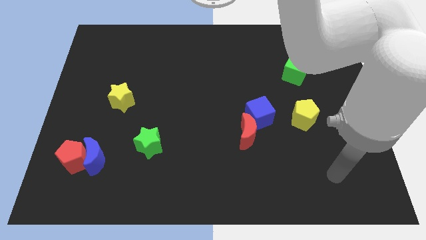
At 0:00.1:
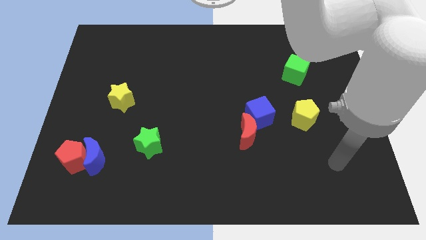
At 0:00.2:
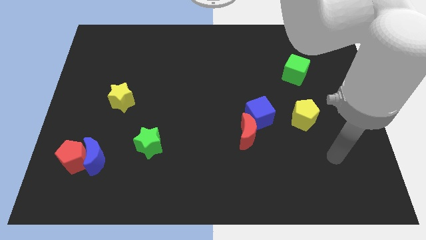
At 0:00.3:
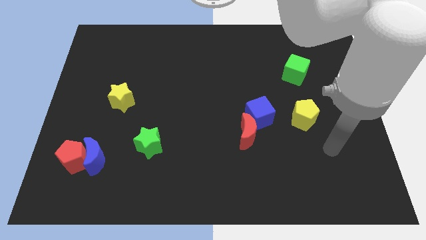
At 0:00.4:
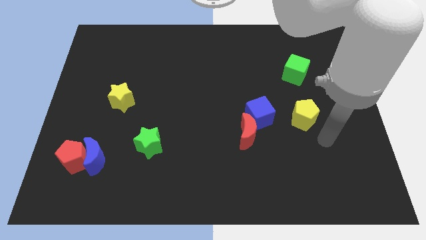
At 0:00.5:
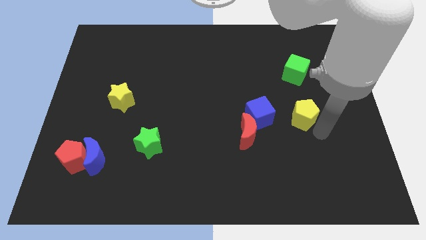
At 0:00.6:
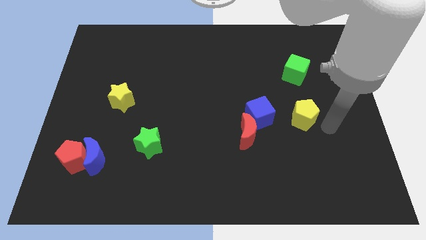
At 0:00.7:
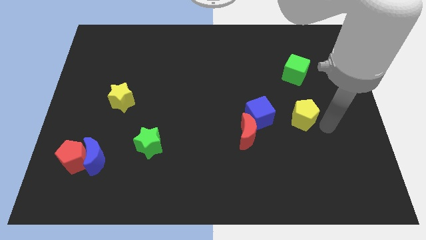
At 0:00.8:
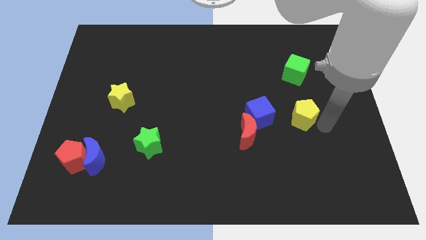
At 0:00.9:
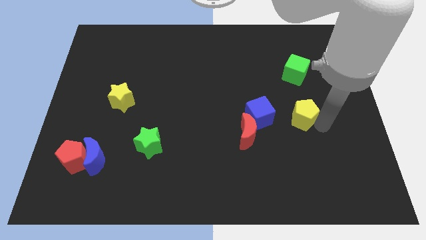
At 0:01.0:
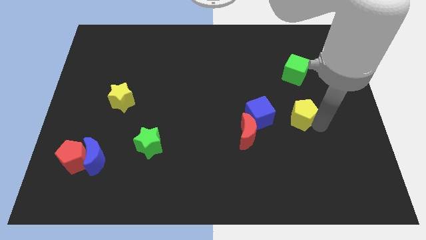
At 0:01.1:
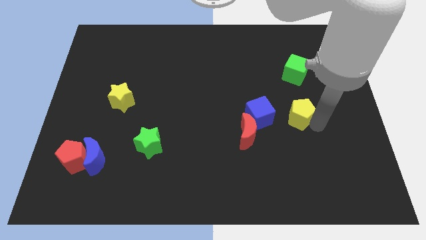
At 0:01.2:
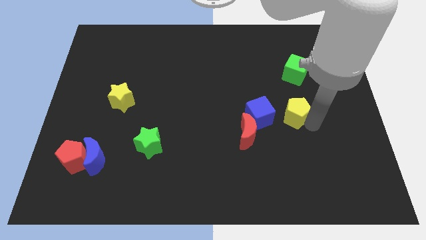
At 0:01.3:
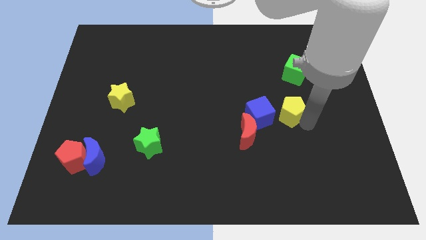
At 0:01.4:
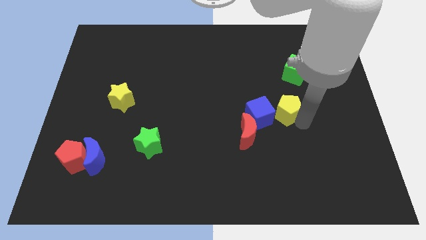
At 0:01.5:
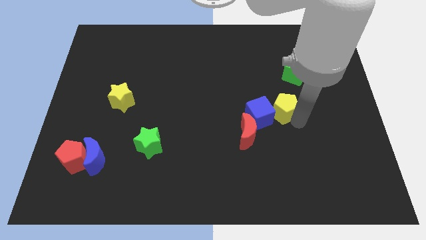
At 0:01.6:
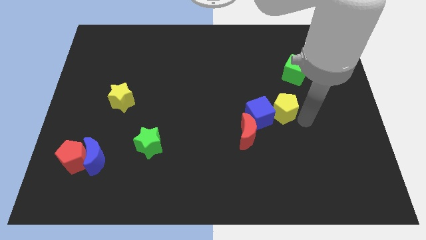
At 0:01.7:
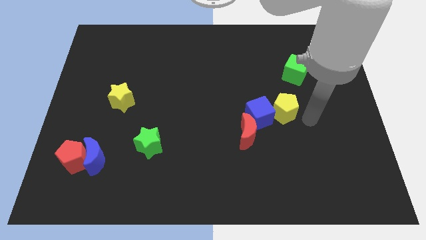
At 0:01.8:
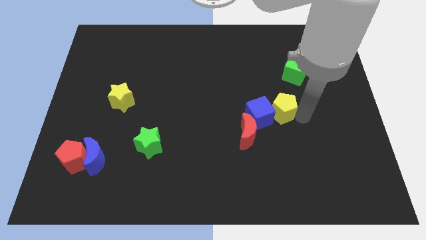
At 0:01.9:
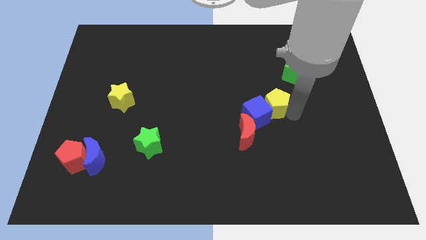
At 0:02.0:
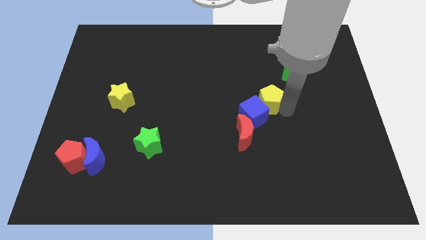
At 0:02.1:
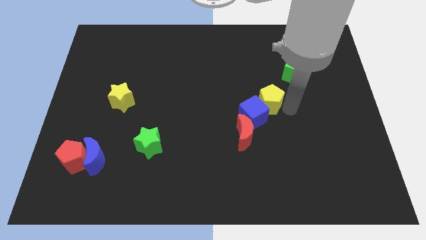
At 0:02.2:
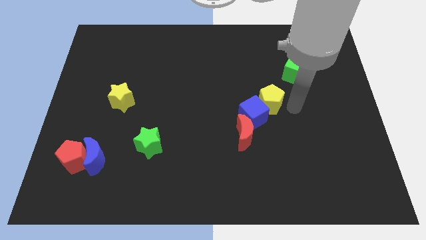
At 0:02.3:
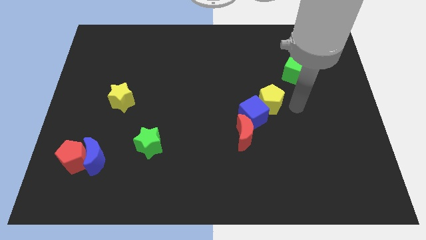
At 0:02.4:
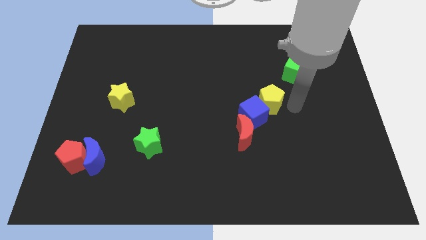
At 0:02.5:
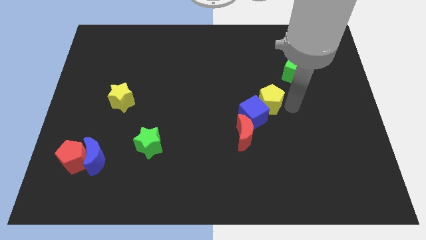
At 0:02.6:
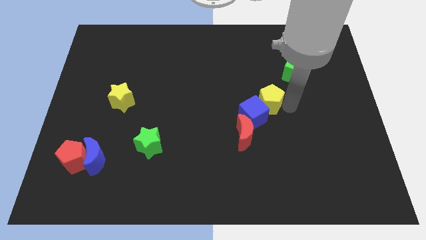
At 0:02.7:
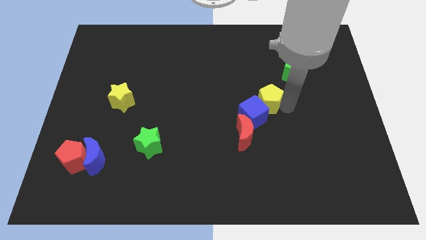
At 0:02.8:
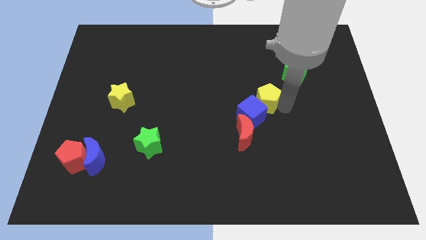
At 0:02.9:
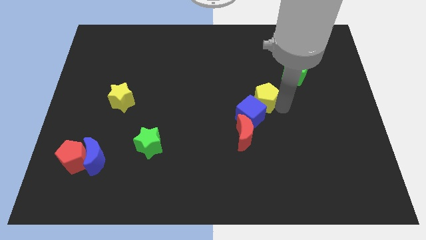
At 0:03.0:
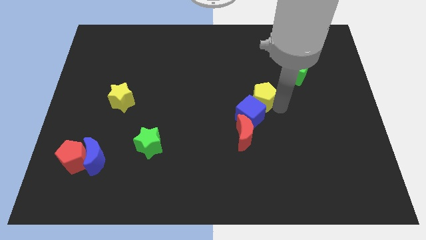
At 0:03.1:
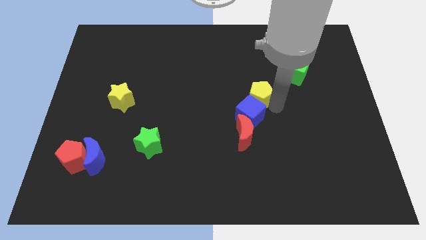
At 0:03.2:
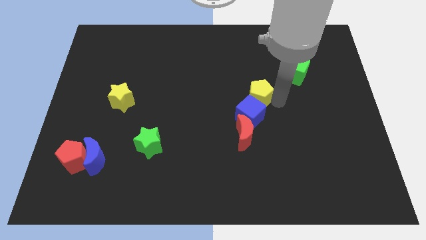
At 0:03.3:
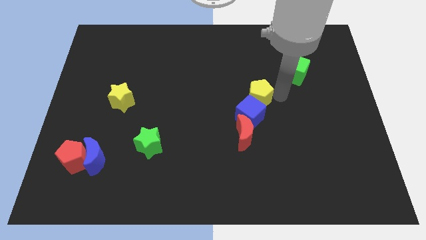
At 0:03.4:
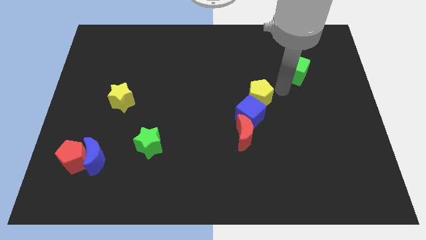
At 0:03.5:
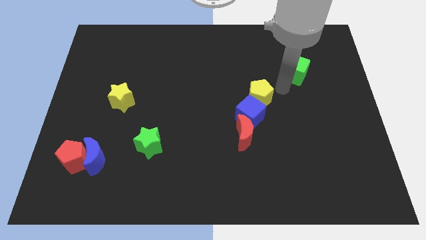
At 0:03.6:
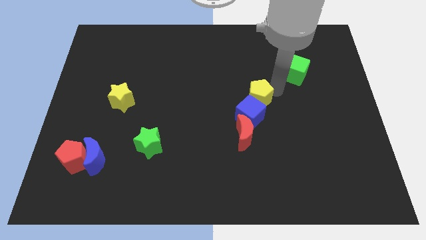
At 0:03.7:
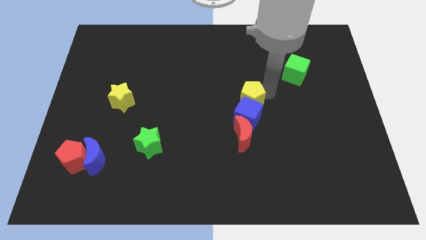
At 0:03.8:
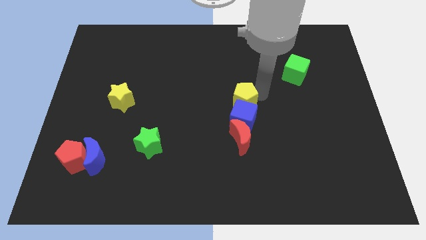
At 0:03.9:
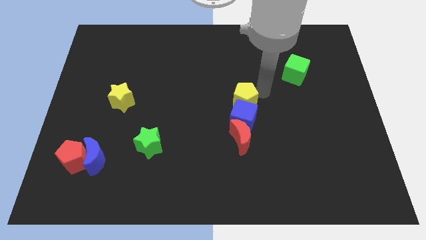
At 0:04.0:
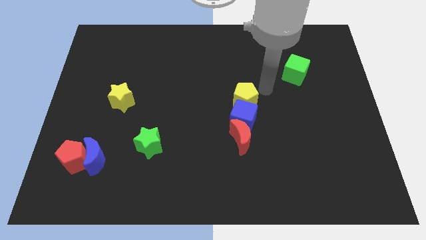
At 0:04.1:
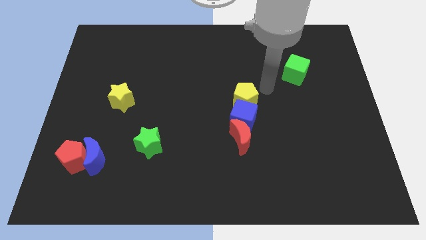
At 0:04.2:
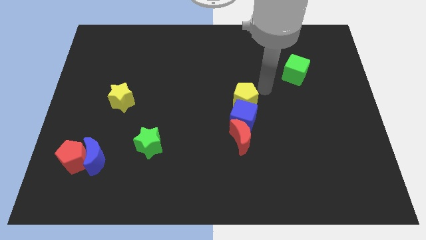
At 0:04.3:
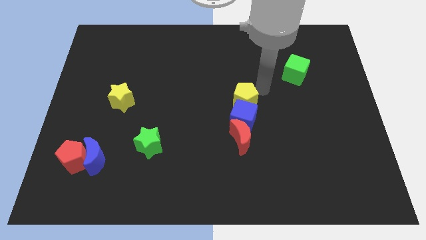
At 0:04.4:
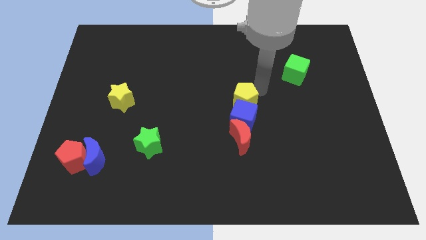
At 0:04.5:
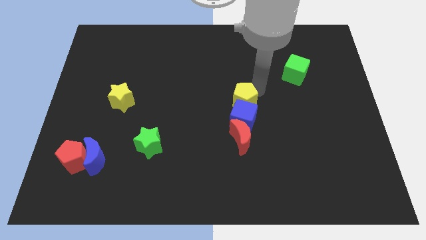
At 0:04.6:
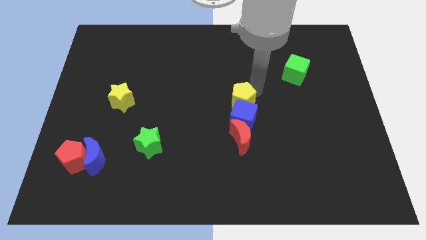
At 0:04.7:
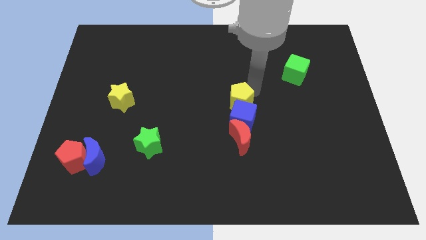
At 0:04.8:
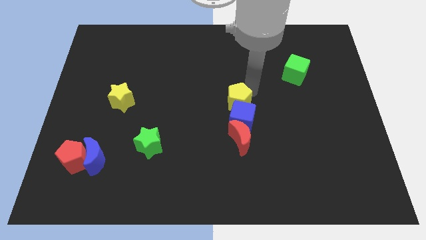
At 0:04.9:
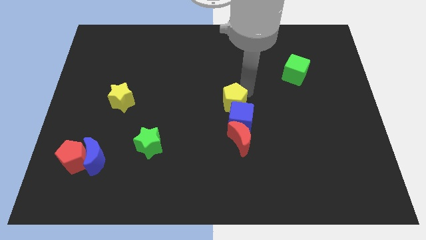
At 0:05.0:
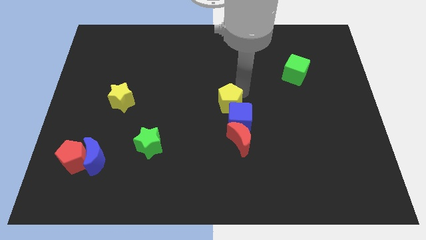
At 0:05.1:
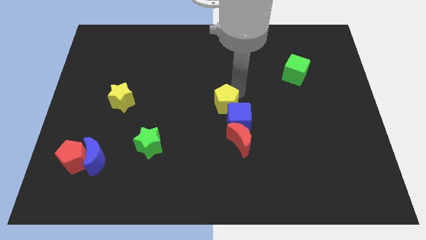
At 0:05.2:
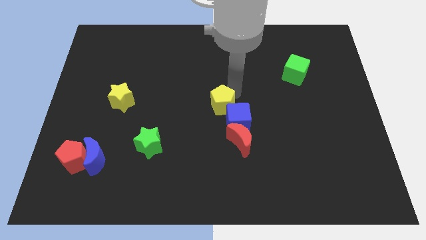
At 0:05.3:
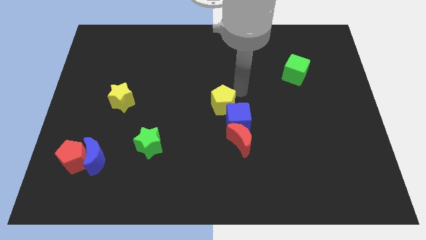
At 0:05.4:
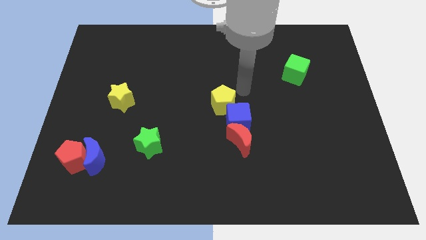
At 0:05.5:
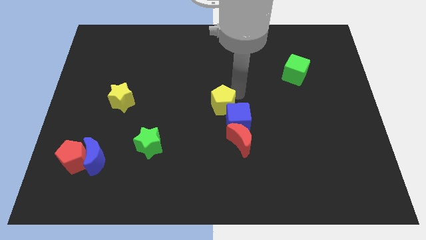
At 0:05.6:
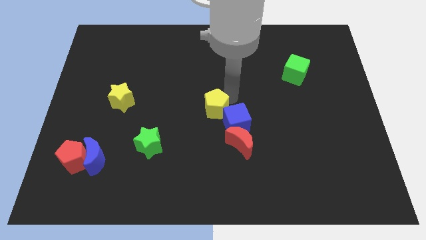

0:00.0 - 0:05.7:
push the yellow pentagon left of the blue cube

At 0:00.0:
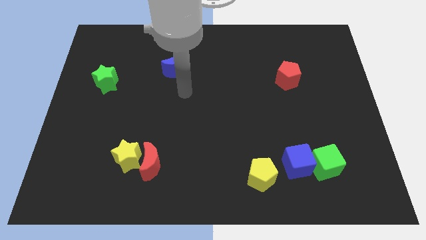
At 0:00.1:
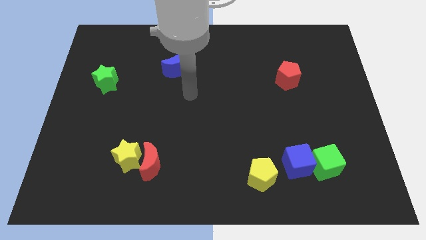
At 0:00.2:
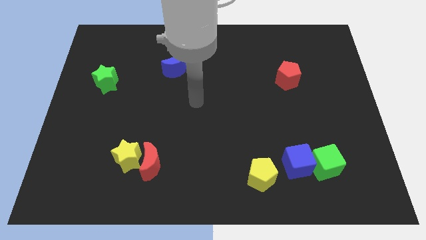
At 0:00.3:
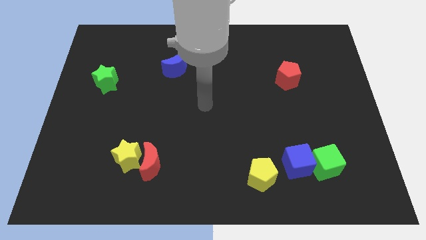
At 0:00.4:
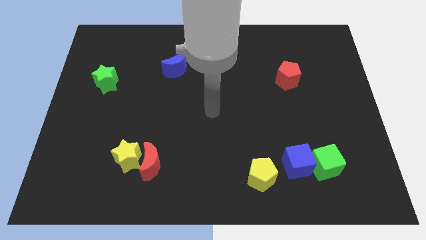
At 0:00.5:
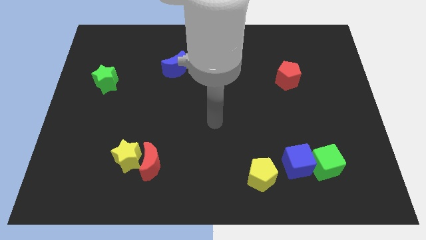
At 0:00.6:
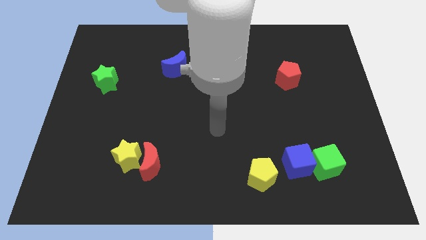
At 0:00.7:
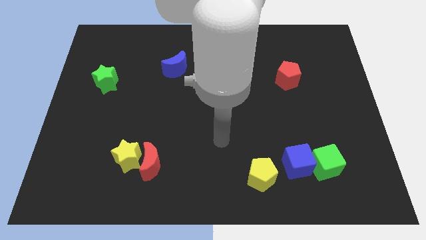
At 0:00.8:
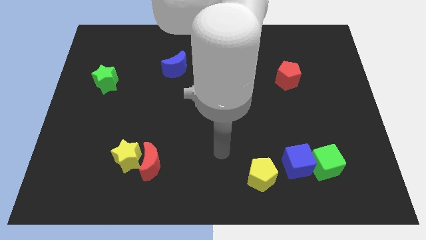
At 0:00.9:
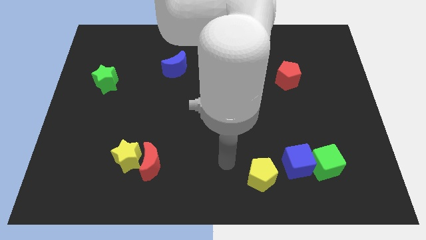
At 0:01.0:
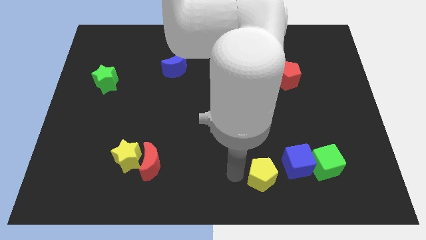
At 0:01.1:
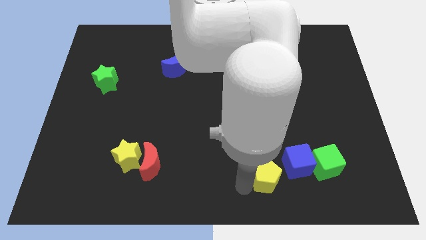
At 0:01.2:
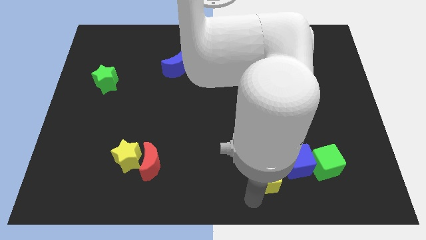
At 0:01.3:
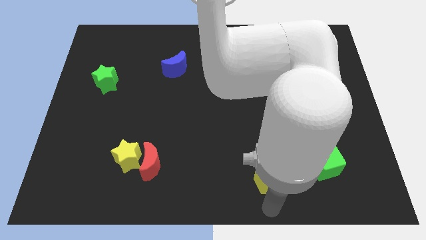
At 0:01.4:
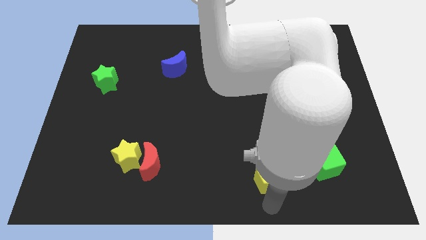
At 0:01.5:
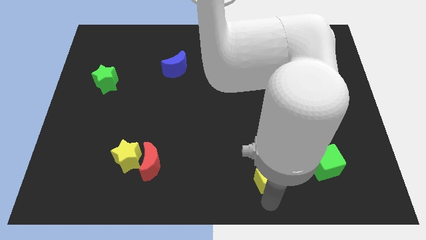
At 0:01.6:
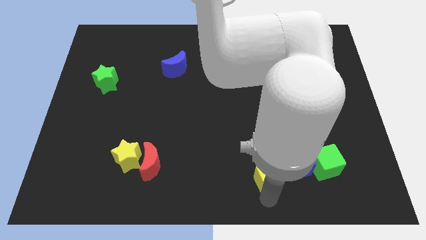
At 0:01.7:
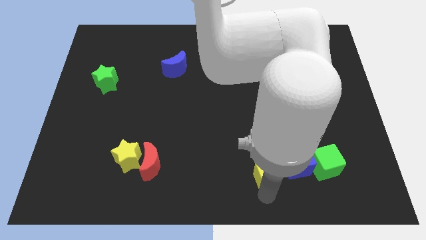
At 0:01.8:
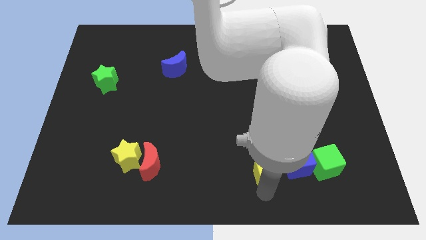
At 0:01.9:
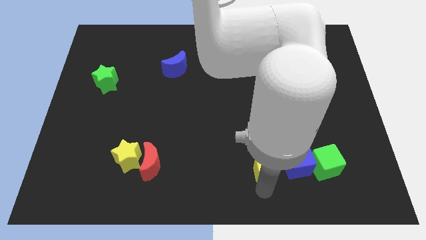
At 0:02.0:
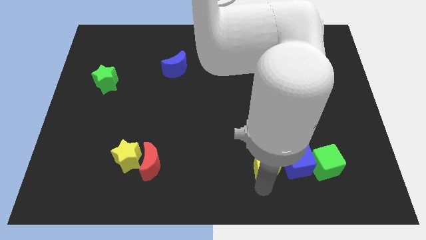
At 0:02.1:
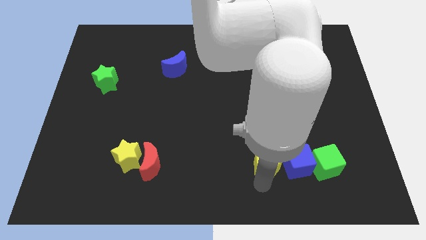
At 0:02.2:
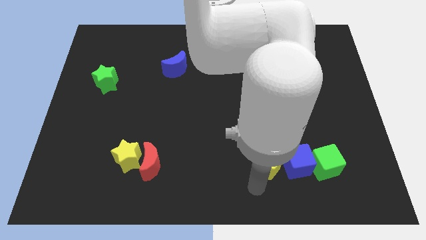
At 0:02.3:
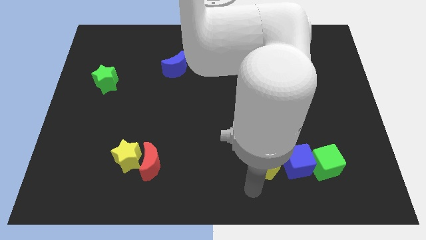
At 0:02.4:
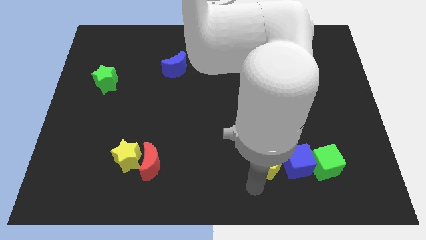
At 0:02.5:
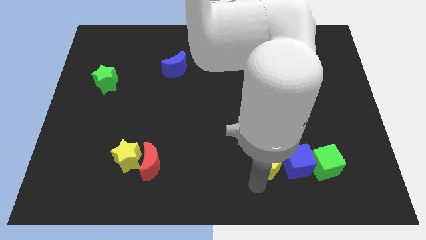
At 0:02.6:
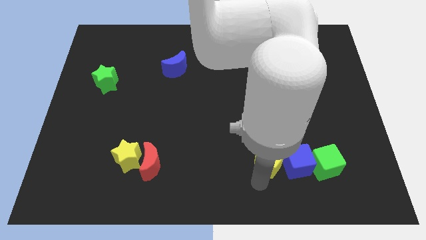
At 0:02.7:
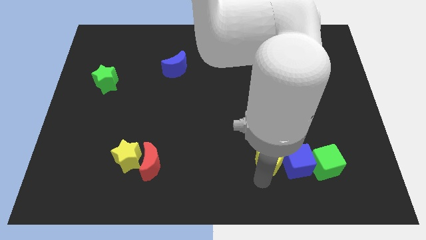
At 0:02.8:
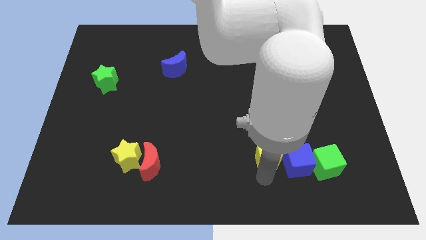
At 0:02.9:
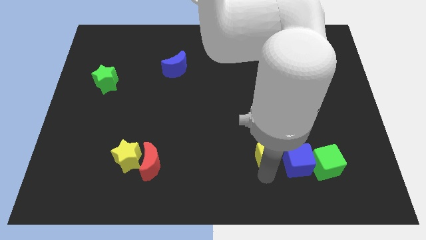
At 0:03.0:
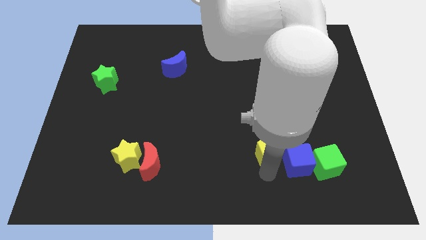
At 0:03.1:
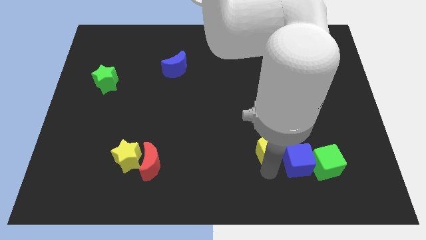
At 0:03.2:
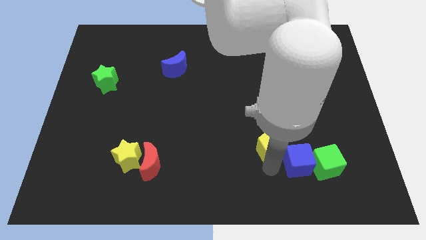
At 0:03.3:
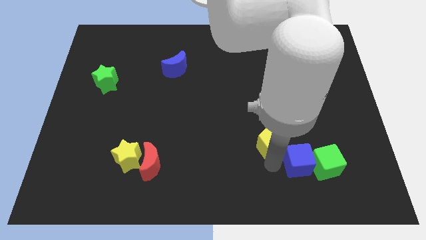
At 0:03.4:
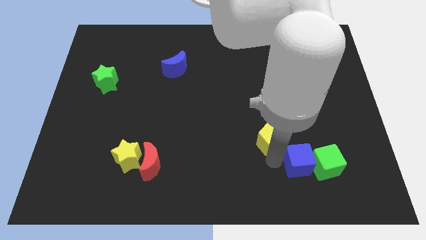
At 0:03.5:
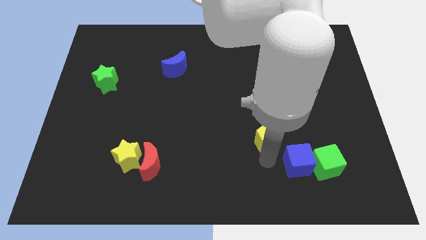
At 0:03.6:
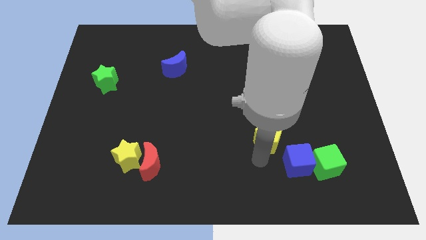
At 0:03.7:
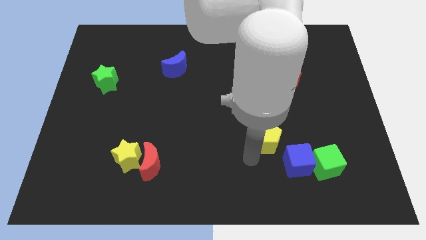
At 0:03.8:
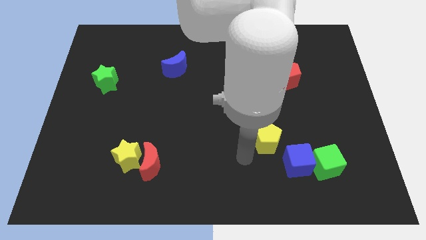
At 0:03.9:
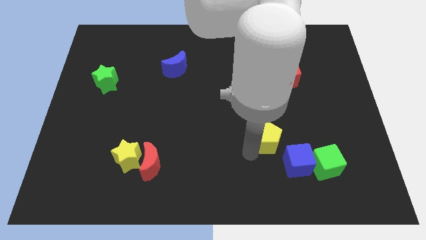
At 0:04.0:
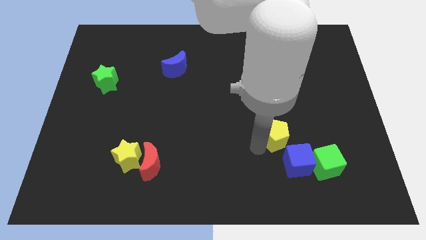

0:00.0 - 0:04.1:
slide the yellow pentagon above the blue cube
